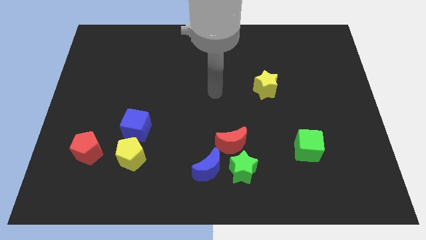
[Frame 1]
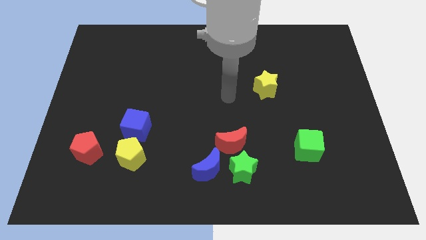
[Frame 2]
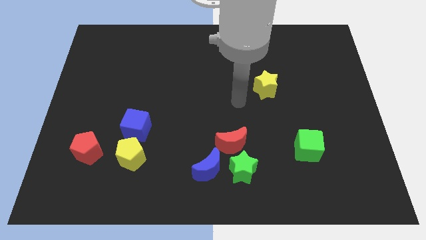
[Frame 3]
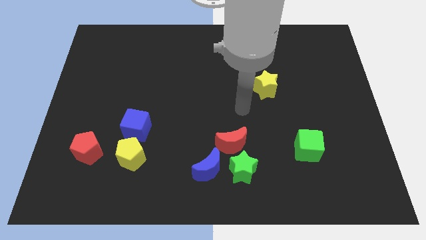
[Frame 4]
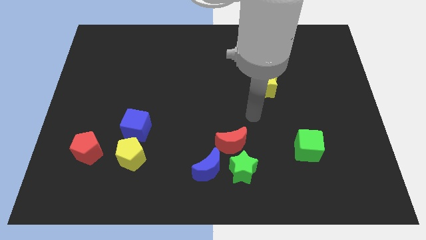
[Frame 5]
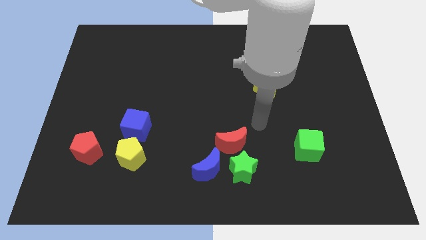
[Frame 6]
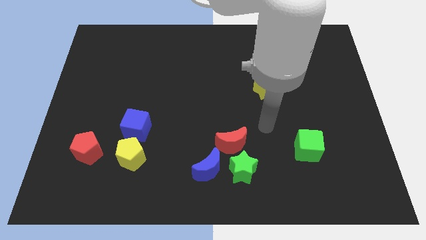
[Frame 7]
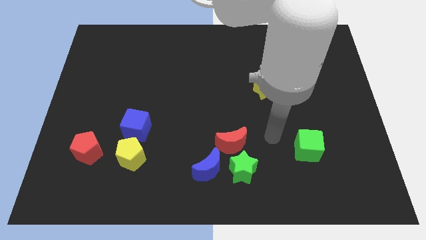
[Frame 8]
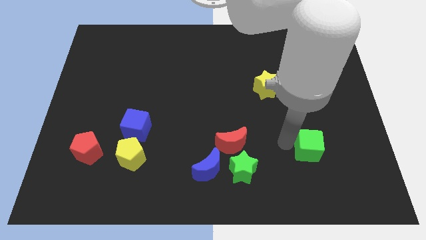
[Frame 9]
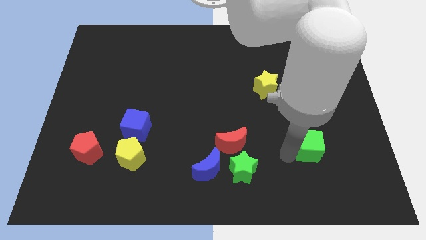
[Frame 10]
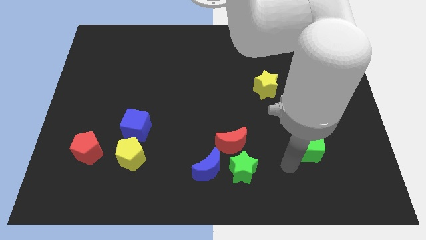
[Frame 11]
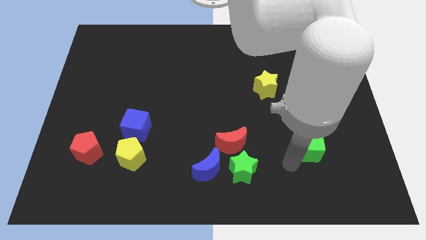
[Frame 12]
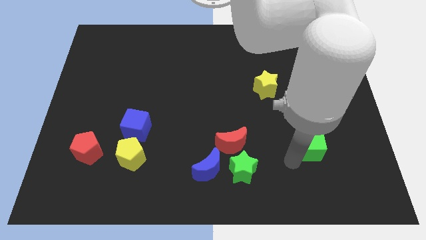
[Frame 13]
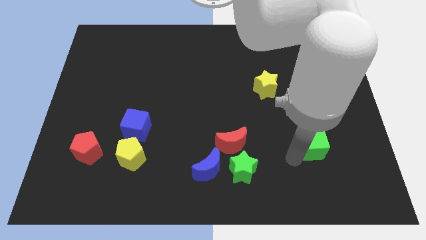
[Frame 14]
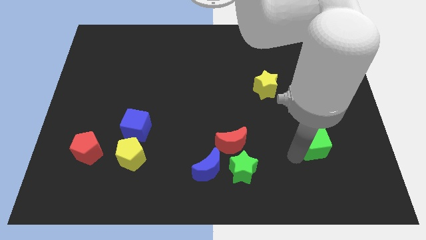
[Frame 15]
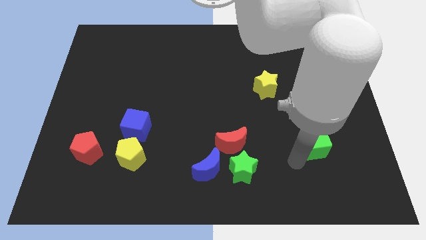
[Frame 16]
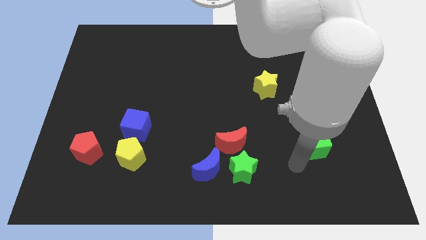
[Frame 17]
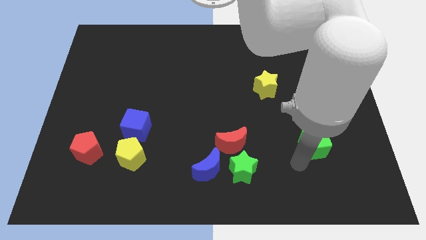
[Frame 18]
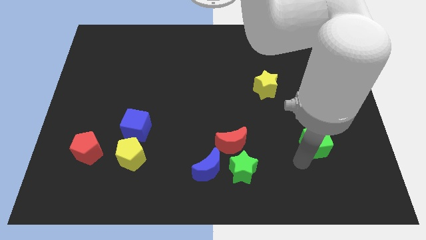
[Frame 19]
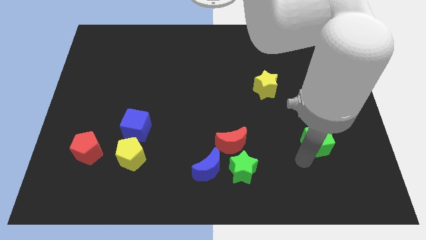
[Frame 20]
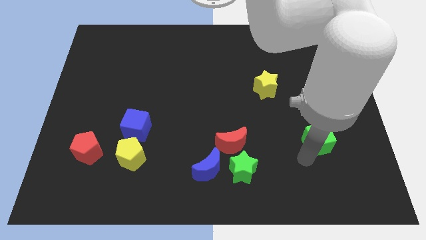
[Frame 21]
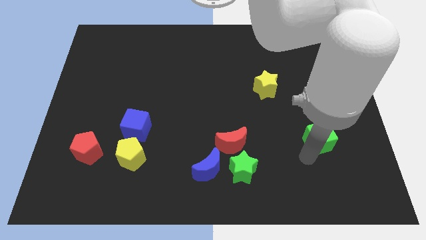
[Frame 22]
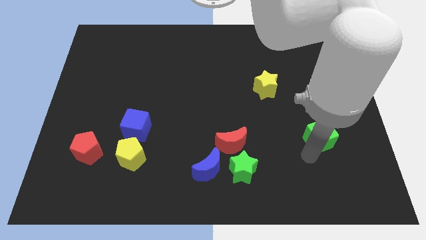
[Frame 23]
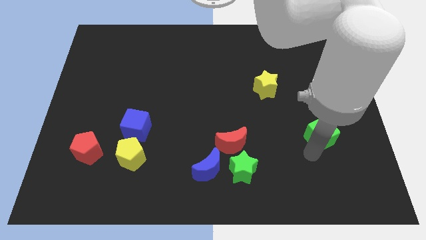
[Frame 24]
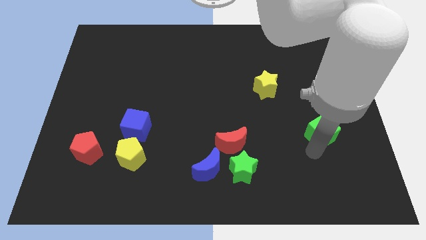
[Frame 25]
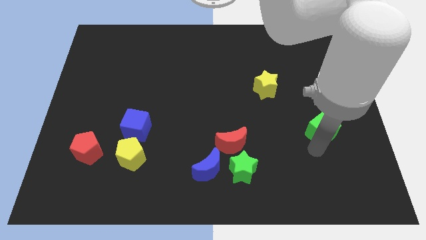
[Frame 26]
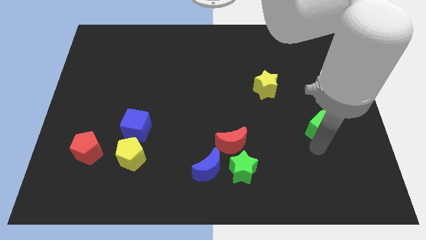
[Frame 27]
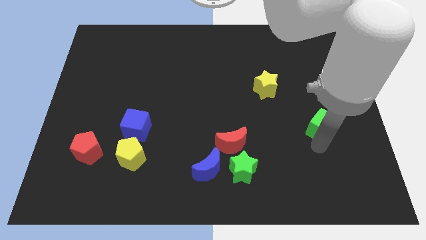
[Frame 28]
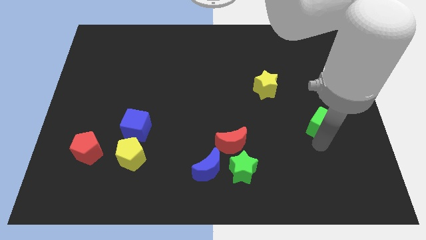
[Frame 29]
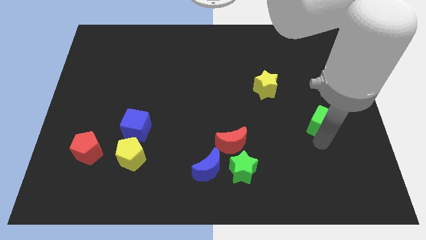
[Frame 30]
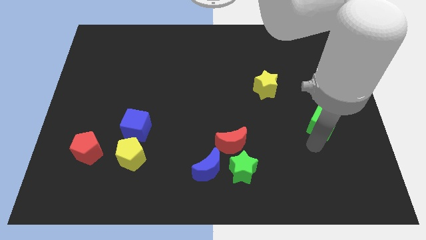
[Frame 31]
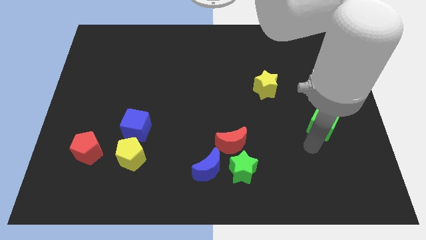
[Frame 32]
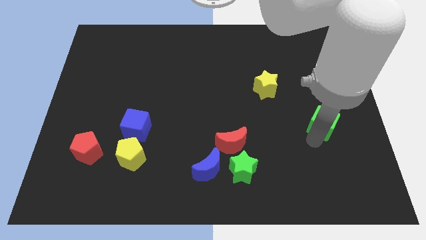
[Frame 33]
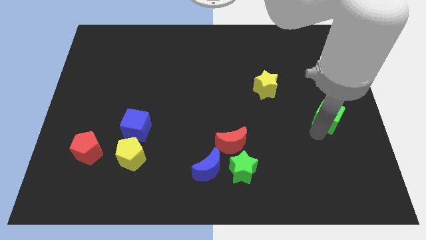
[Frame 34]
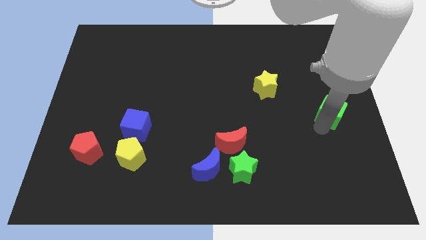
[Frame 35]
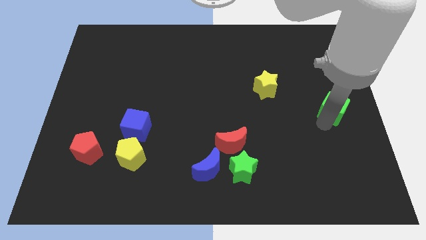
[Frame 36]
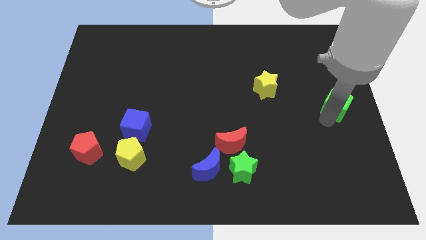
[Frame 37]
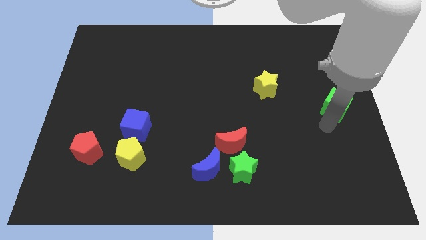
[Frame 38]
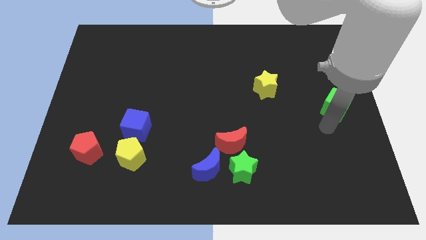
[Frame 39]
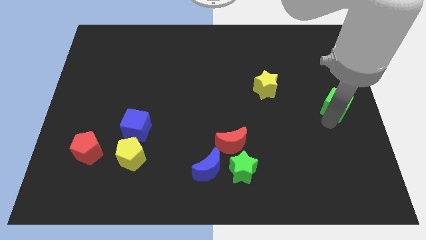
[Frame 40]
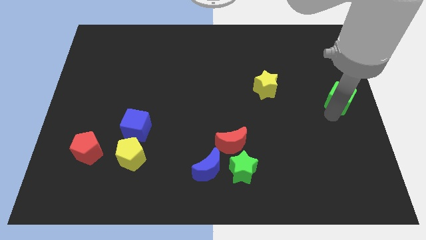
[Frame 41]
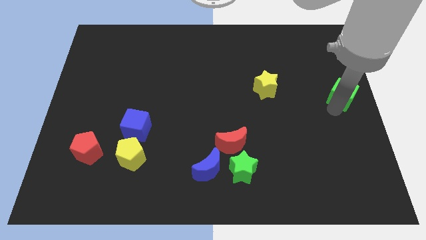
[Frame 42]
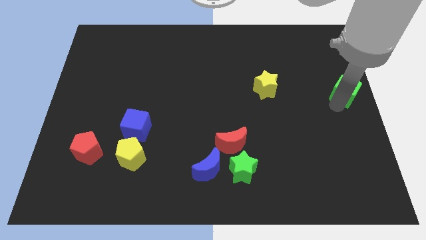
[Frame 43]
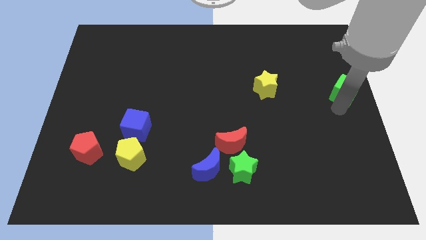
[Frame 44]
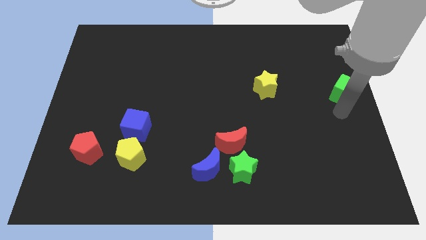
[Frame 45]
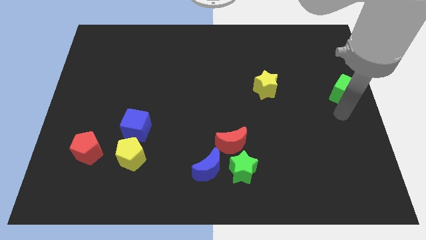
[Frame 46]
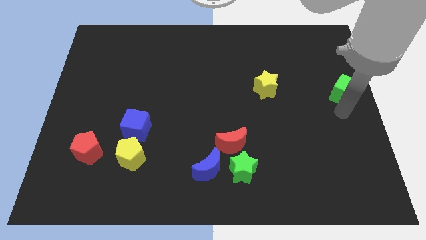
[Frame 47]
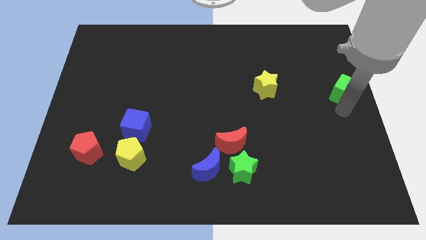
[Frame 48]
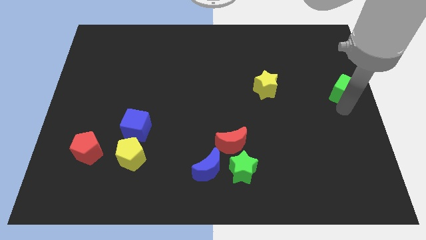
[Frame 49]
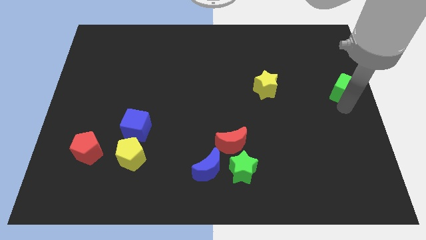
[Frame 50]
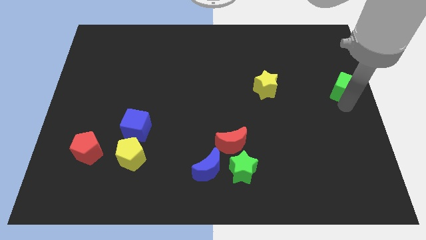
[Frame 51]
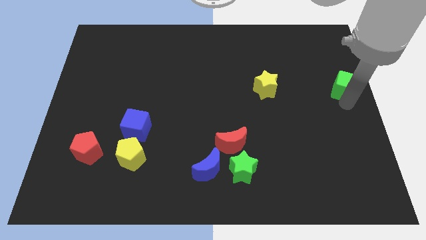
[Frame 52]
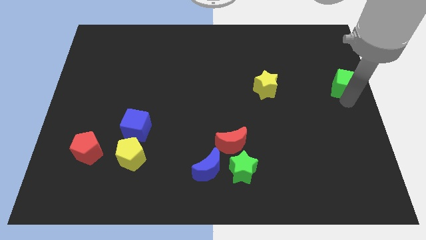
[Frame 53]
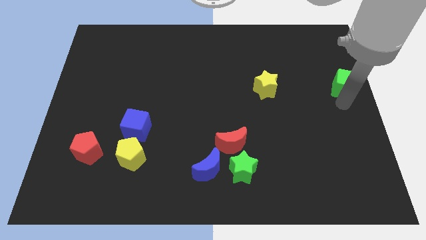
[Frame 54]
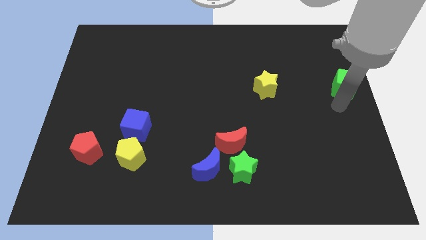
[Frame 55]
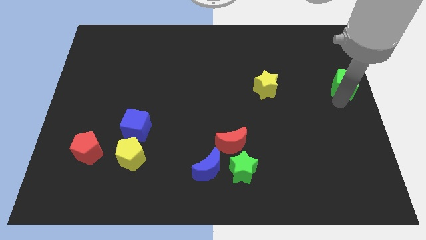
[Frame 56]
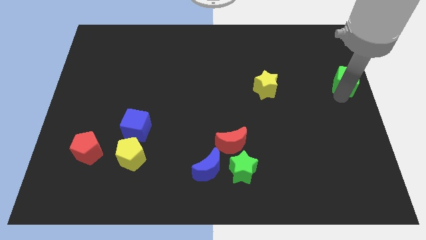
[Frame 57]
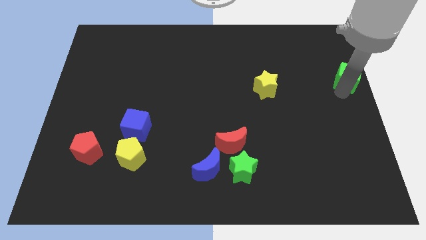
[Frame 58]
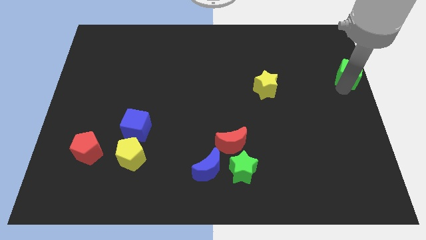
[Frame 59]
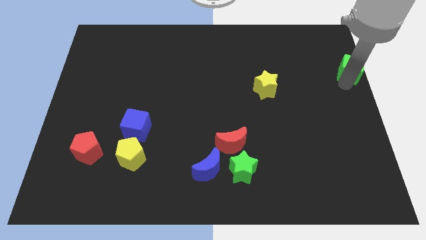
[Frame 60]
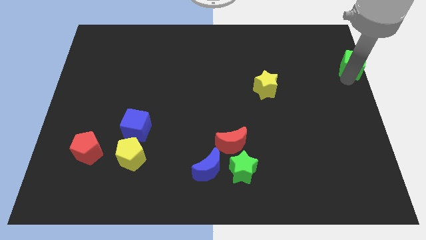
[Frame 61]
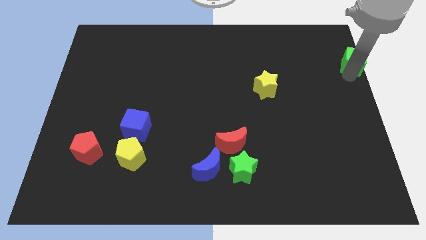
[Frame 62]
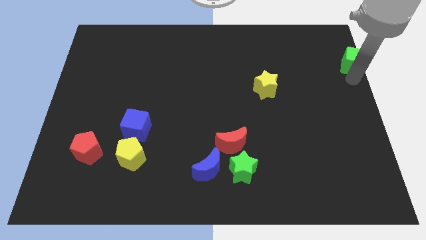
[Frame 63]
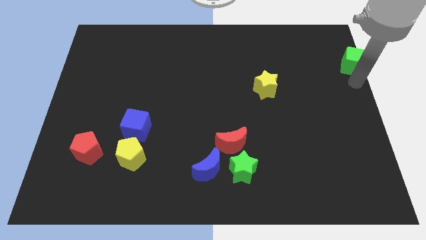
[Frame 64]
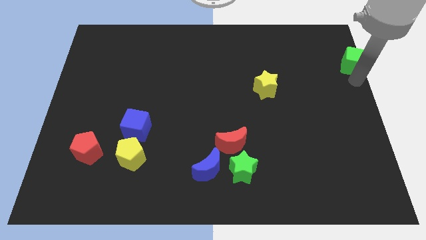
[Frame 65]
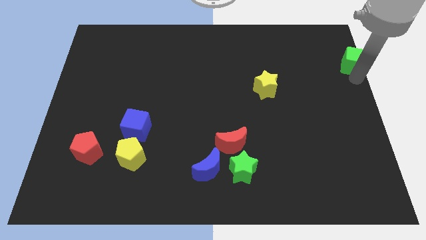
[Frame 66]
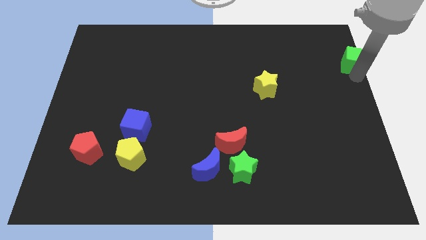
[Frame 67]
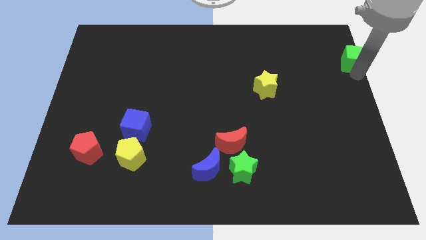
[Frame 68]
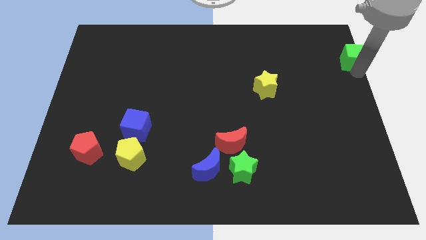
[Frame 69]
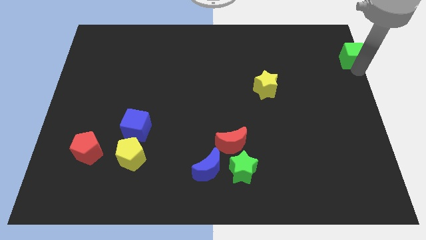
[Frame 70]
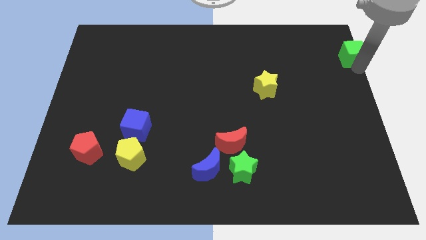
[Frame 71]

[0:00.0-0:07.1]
slide the green cube to the top right corner
